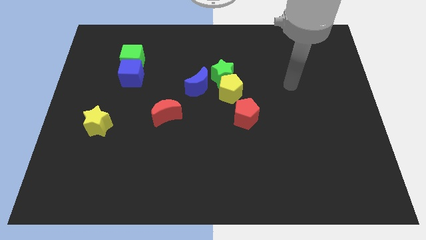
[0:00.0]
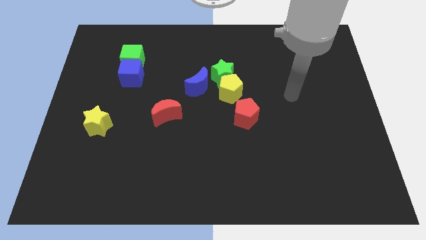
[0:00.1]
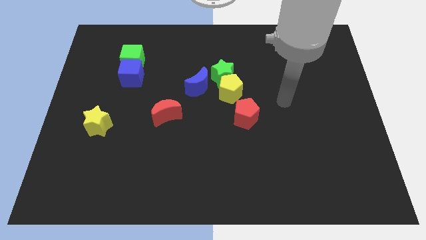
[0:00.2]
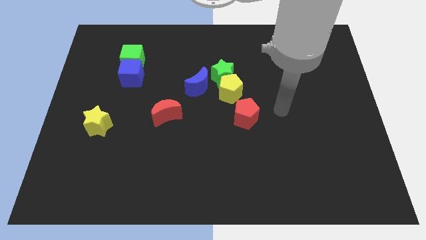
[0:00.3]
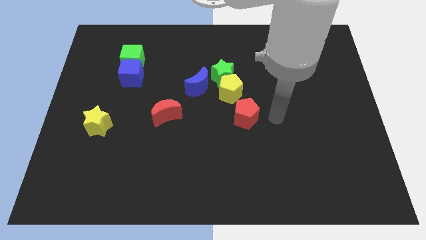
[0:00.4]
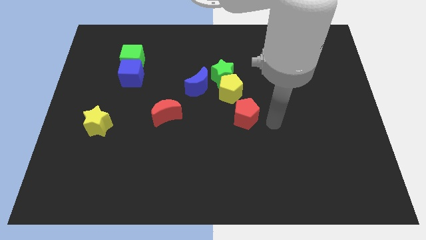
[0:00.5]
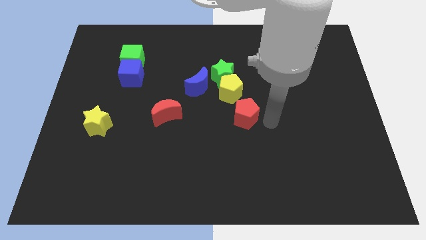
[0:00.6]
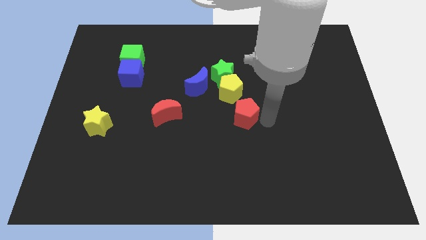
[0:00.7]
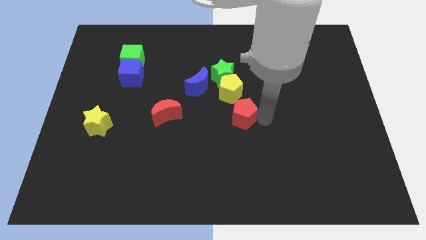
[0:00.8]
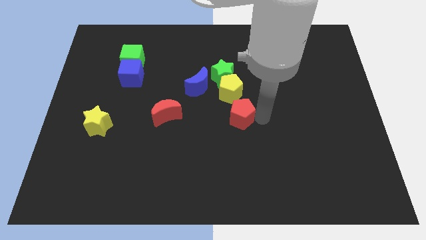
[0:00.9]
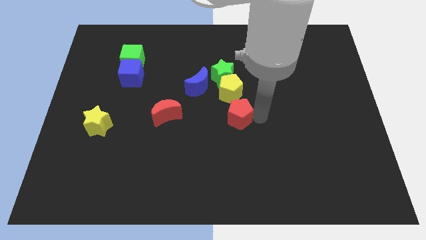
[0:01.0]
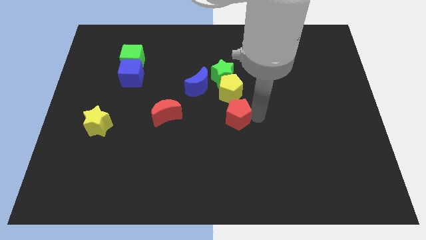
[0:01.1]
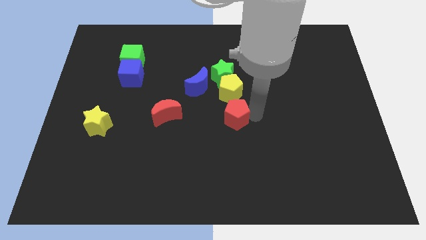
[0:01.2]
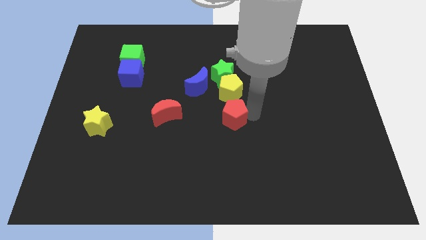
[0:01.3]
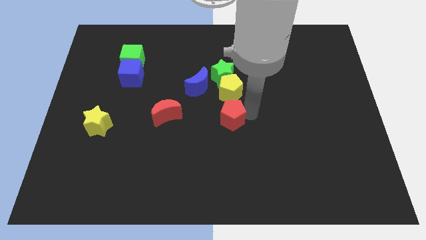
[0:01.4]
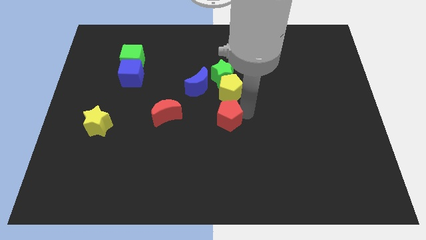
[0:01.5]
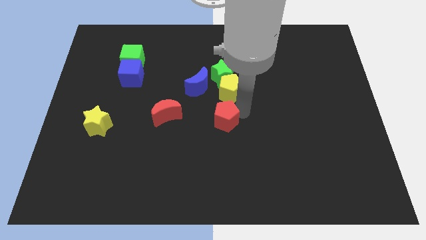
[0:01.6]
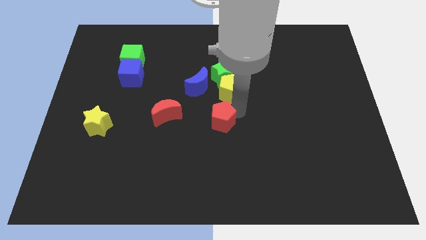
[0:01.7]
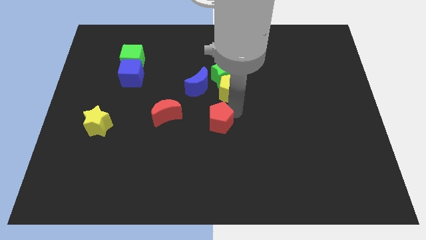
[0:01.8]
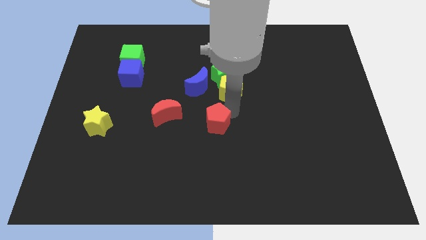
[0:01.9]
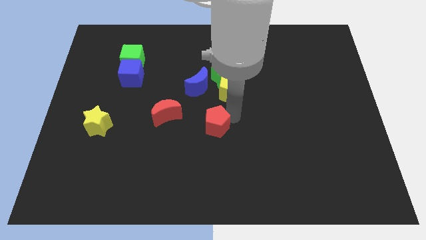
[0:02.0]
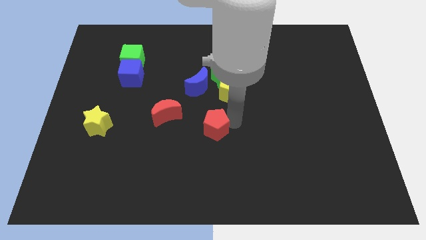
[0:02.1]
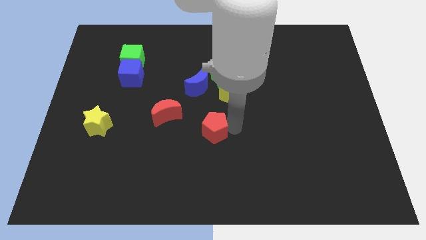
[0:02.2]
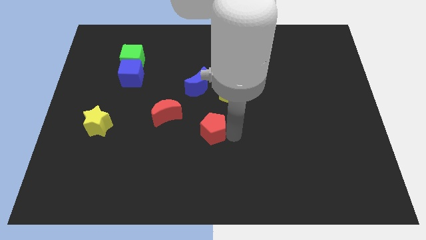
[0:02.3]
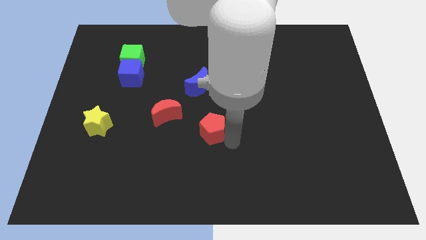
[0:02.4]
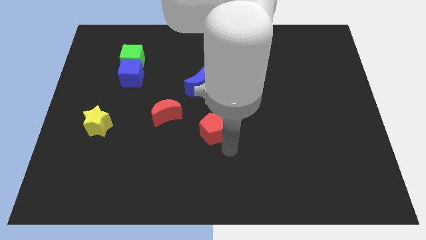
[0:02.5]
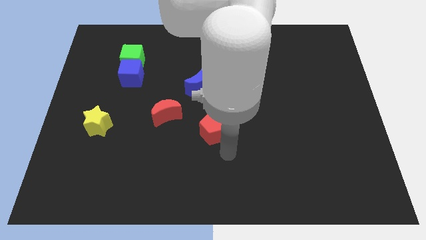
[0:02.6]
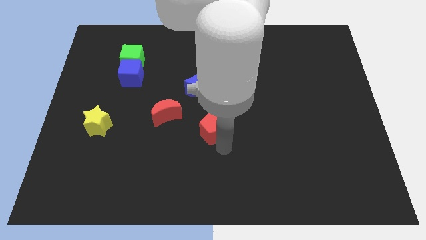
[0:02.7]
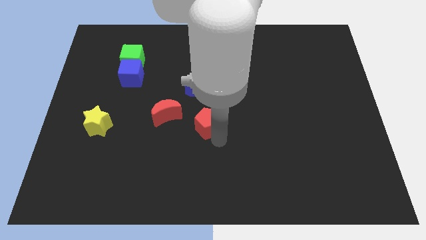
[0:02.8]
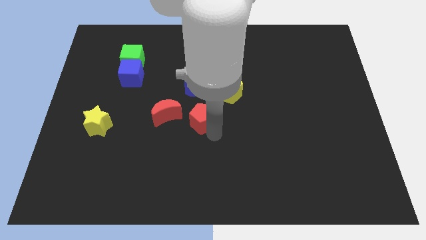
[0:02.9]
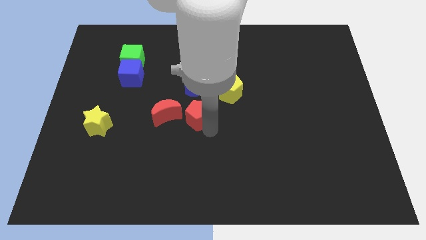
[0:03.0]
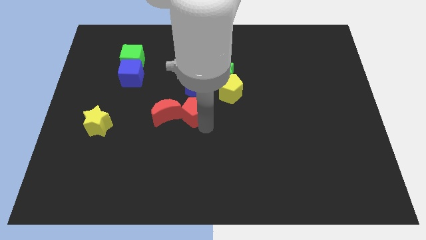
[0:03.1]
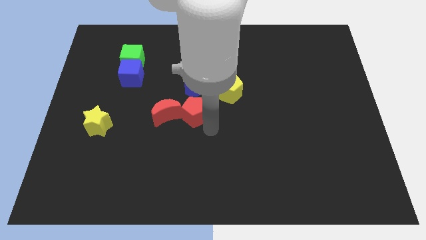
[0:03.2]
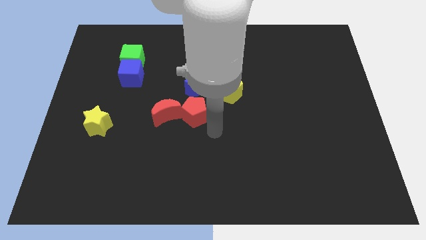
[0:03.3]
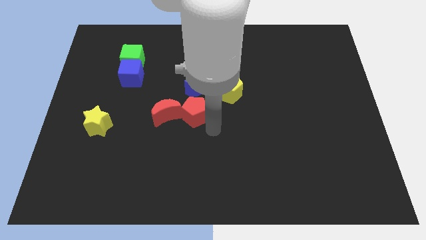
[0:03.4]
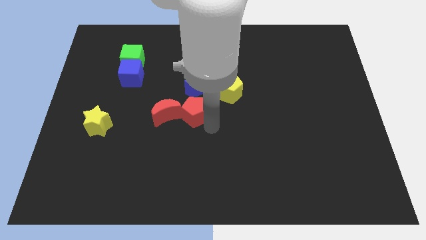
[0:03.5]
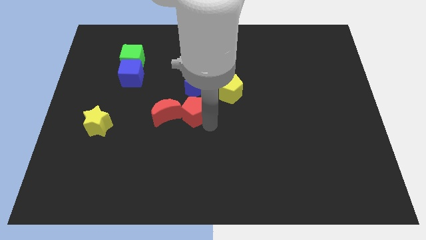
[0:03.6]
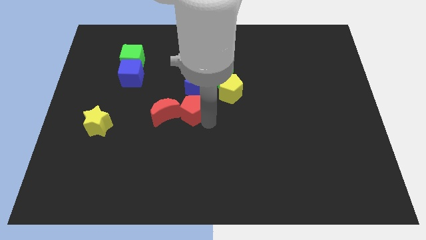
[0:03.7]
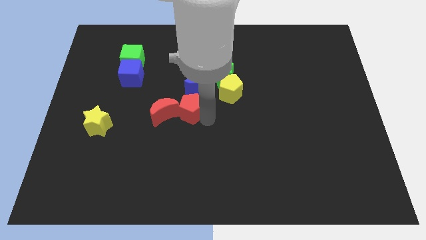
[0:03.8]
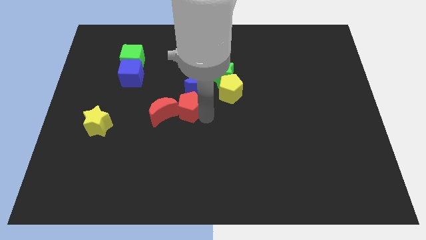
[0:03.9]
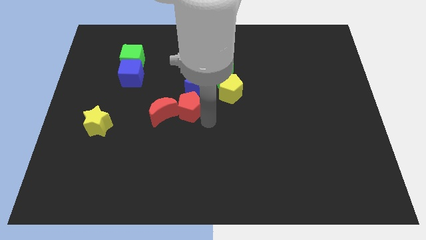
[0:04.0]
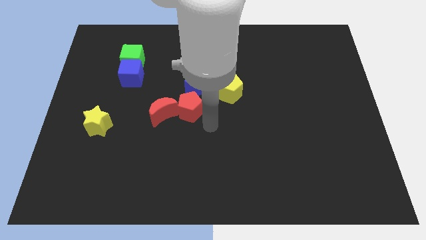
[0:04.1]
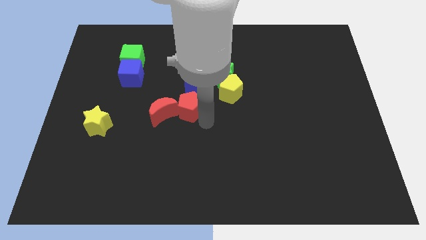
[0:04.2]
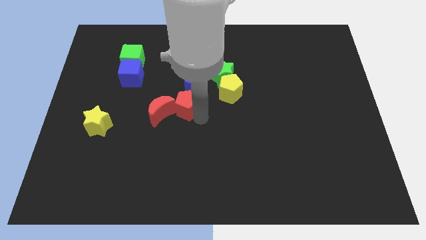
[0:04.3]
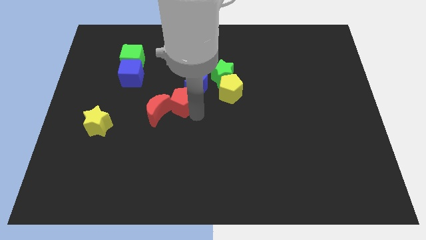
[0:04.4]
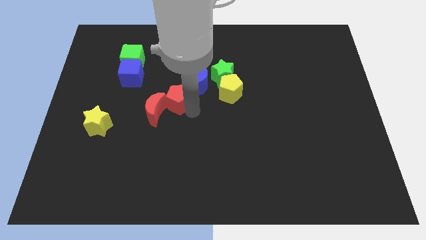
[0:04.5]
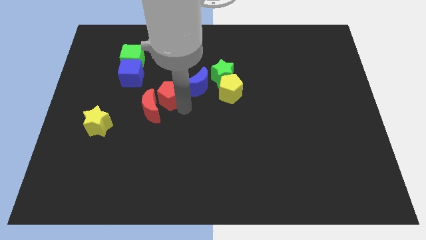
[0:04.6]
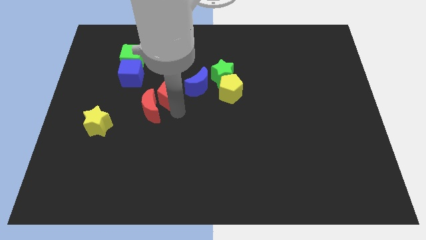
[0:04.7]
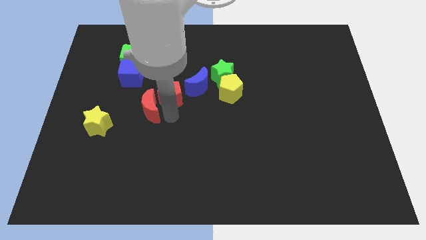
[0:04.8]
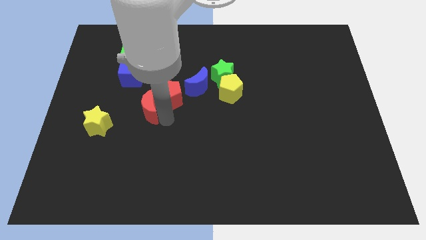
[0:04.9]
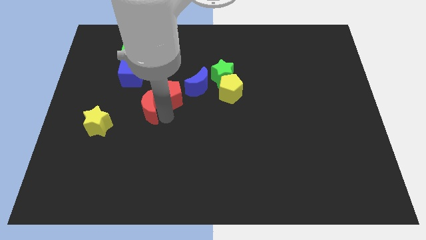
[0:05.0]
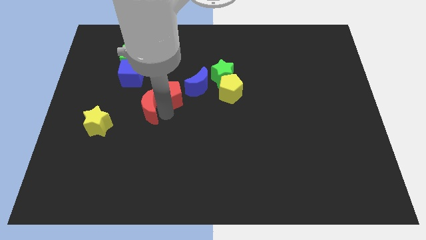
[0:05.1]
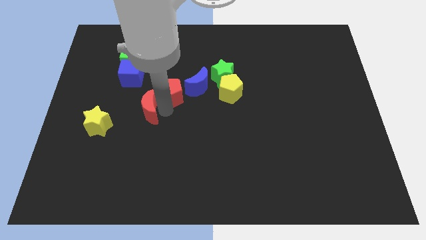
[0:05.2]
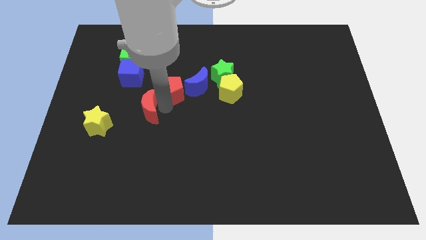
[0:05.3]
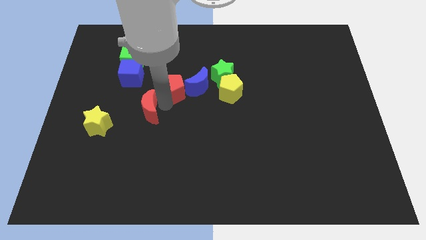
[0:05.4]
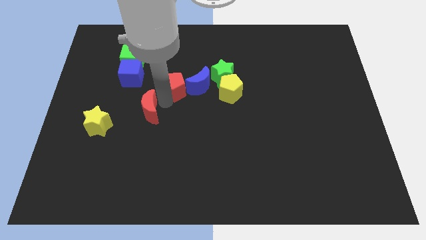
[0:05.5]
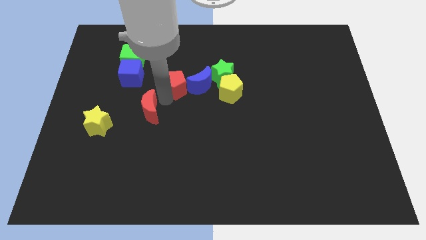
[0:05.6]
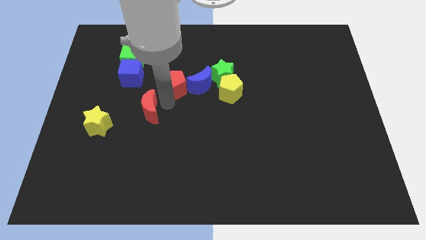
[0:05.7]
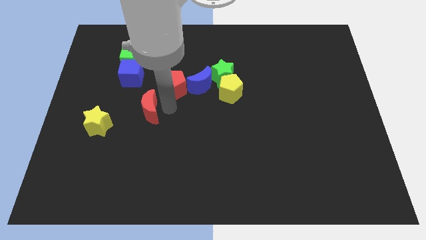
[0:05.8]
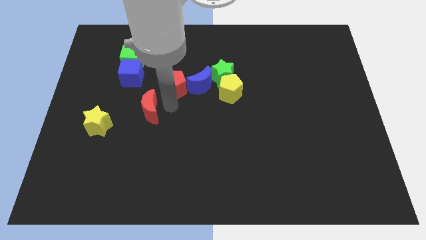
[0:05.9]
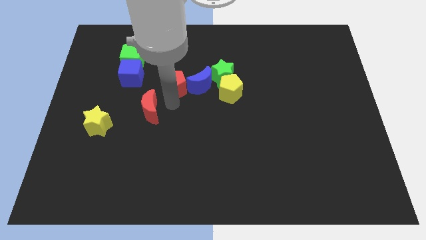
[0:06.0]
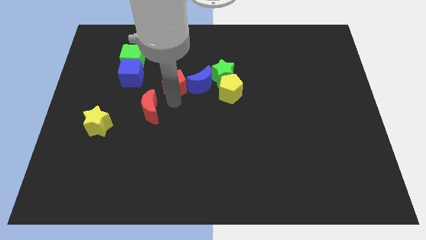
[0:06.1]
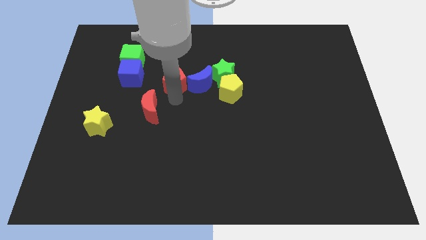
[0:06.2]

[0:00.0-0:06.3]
put the red pentagon to the top left of the blue moon

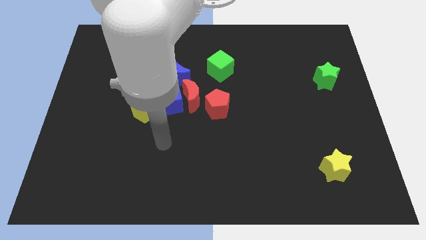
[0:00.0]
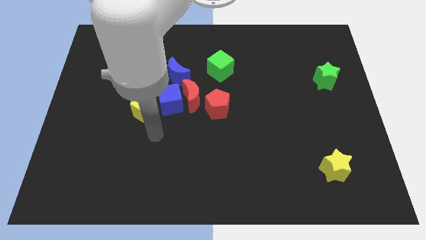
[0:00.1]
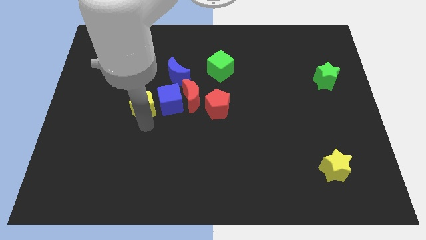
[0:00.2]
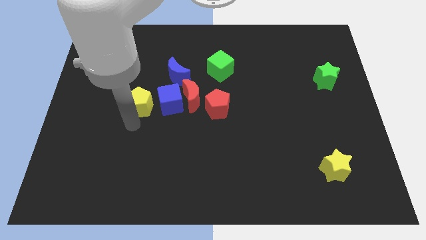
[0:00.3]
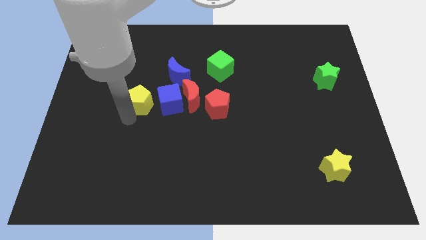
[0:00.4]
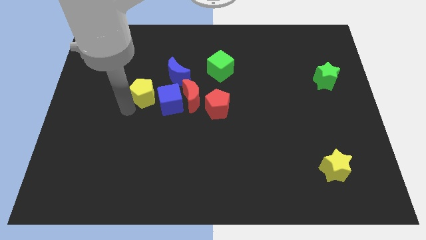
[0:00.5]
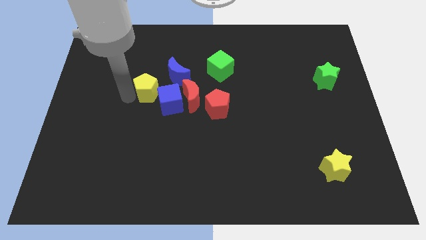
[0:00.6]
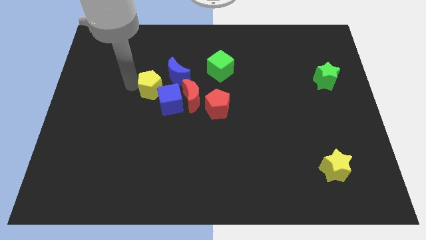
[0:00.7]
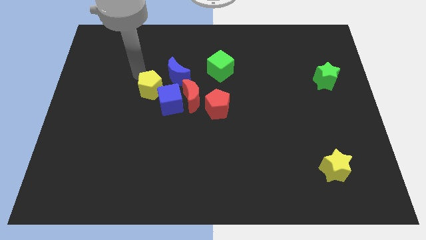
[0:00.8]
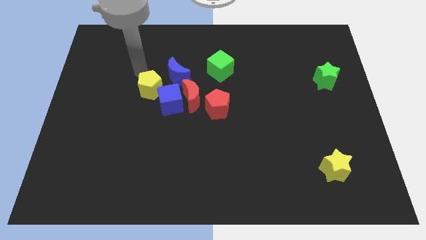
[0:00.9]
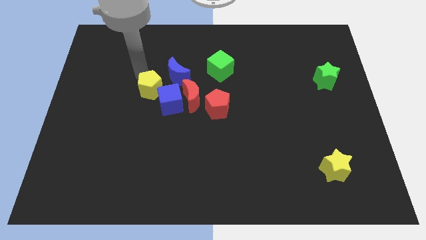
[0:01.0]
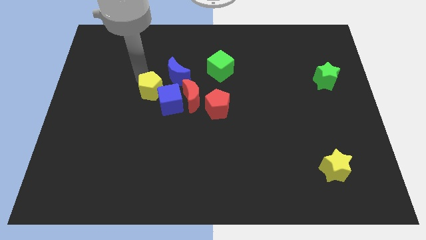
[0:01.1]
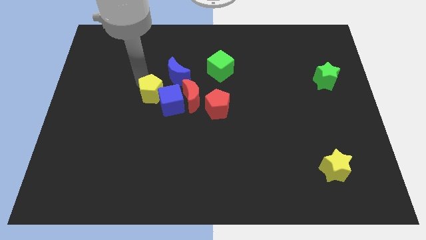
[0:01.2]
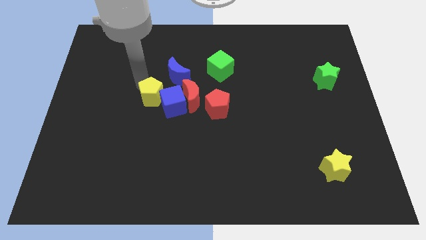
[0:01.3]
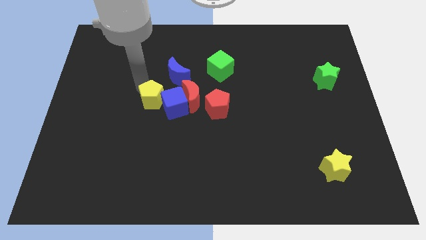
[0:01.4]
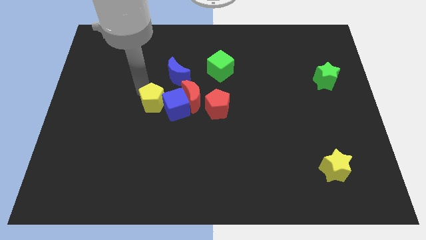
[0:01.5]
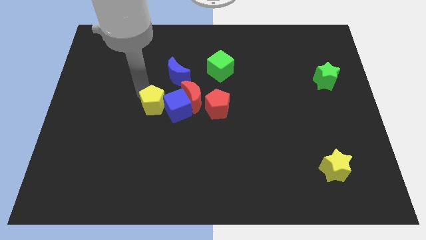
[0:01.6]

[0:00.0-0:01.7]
slide the yellow pentagon to the bottom of the blue moon
